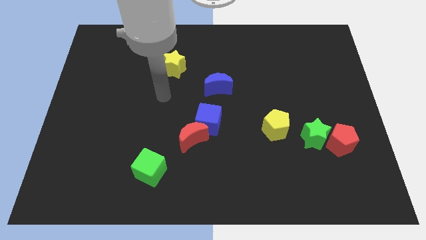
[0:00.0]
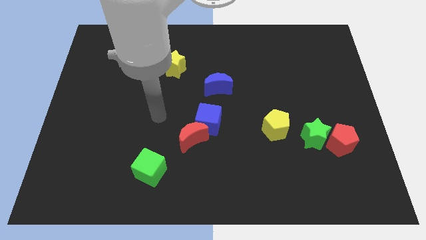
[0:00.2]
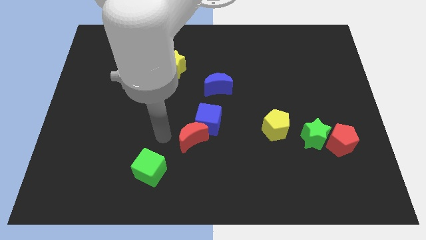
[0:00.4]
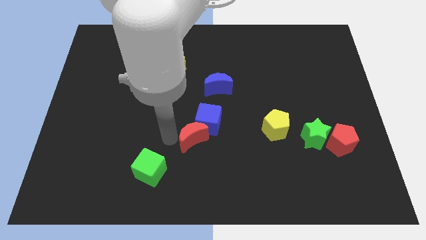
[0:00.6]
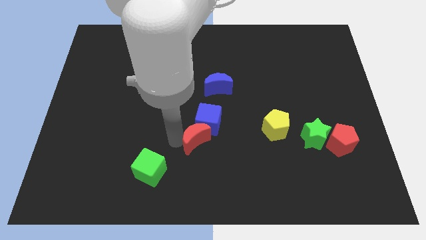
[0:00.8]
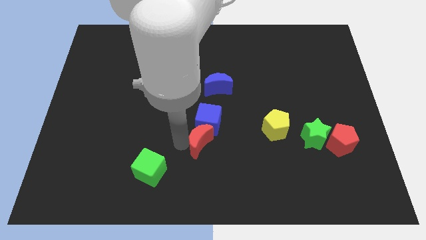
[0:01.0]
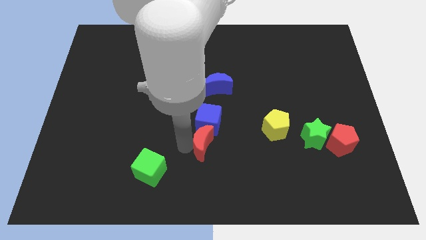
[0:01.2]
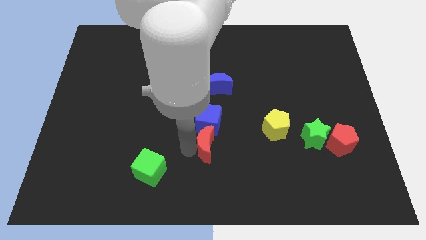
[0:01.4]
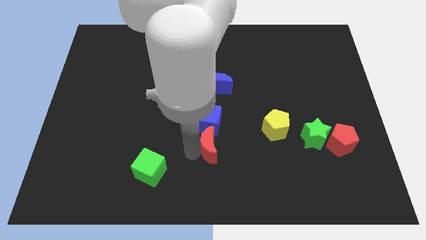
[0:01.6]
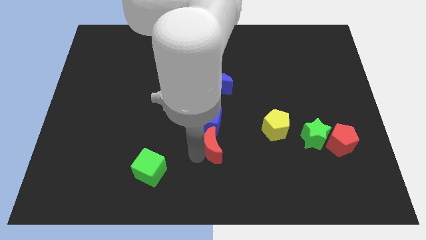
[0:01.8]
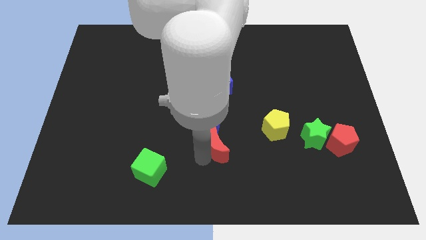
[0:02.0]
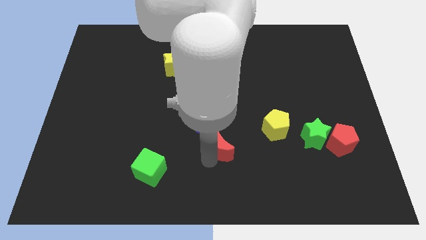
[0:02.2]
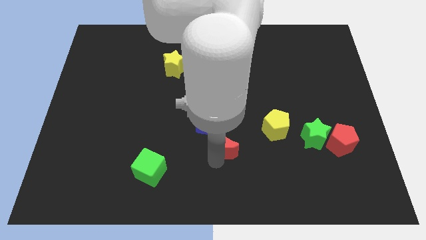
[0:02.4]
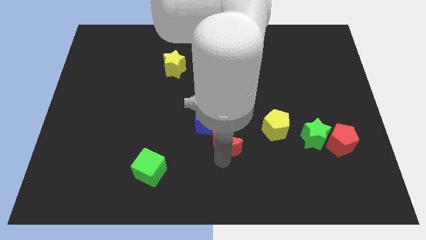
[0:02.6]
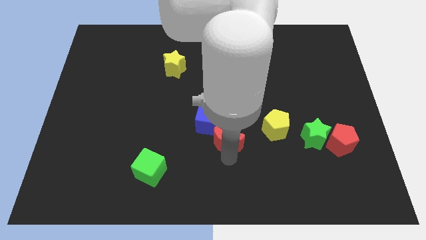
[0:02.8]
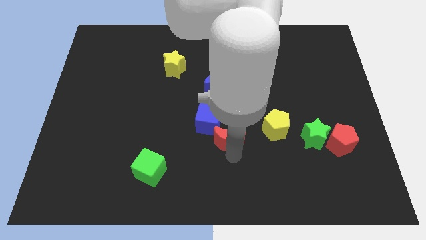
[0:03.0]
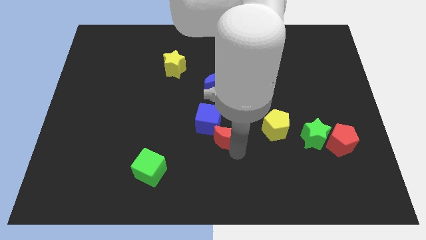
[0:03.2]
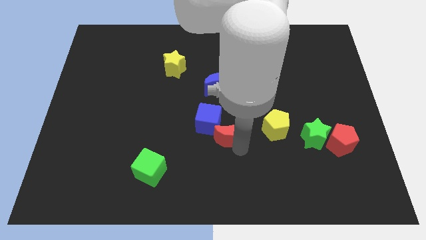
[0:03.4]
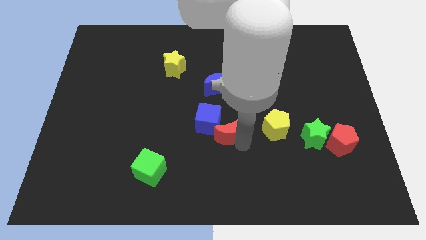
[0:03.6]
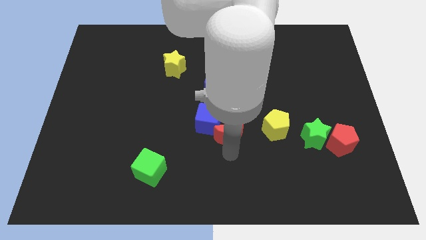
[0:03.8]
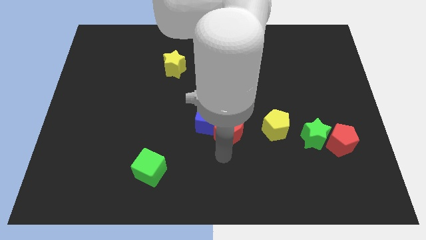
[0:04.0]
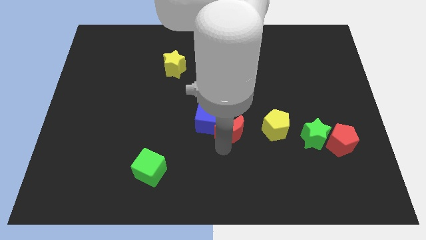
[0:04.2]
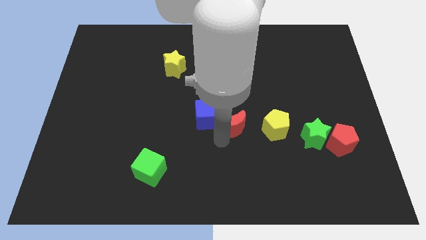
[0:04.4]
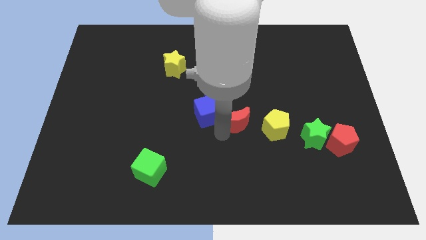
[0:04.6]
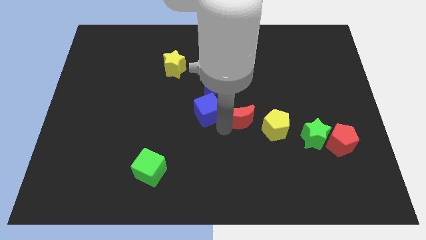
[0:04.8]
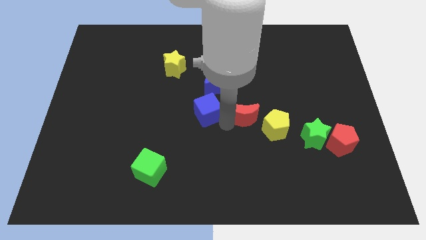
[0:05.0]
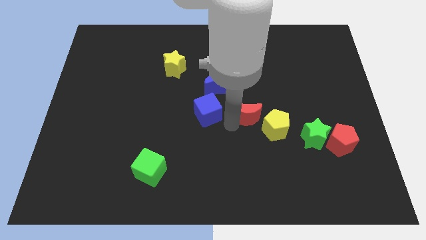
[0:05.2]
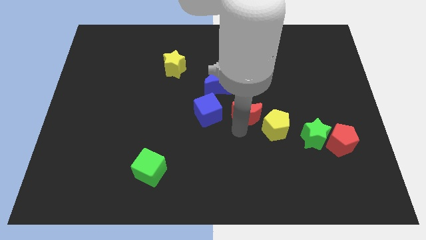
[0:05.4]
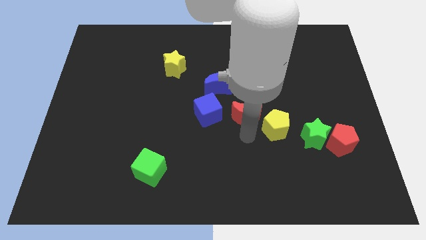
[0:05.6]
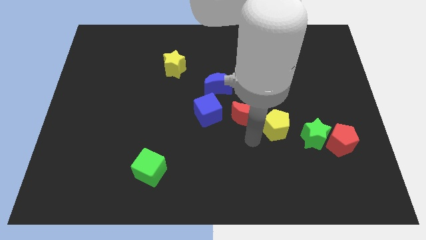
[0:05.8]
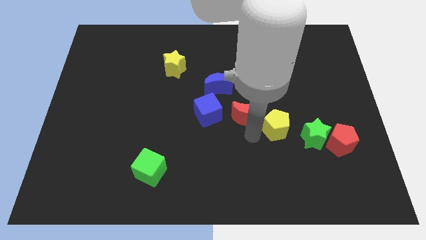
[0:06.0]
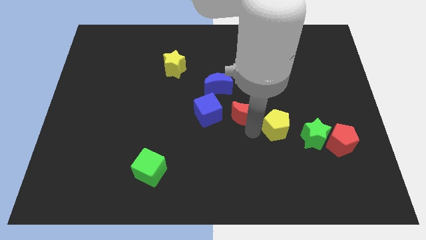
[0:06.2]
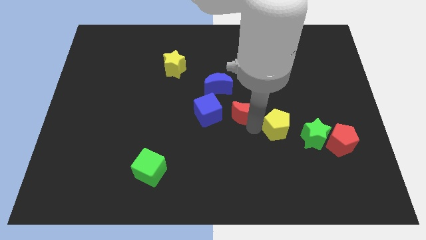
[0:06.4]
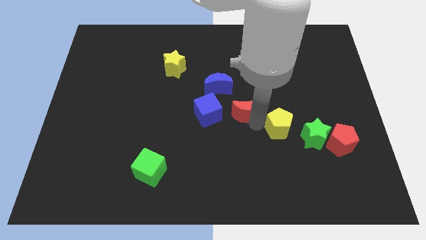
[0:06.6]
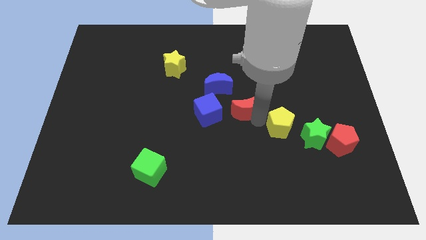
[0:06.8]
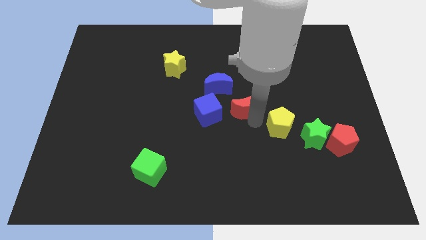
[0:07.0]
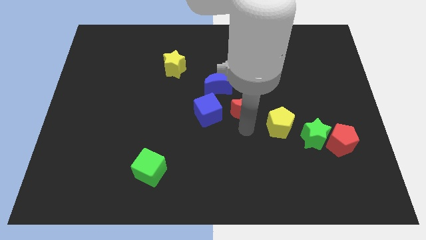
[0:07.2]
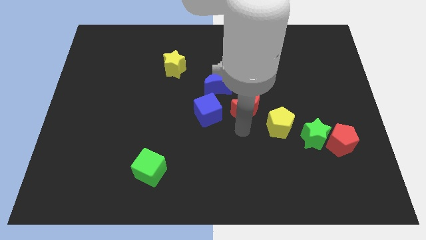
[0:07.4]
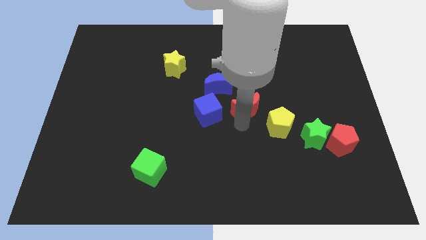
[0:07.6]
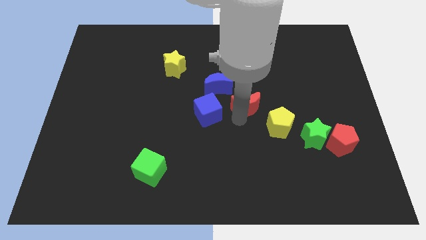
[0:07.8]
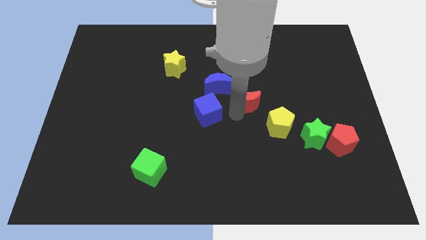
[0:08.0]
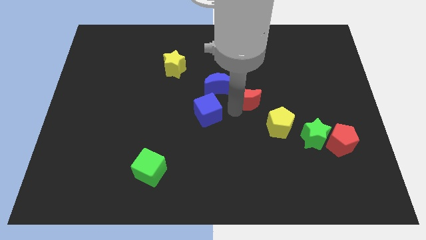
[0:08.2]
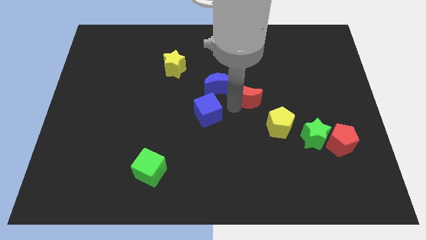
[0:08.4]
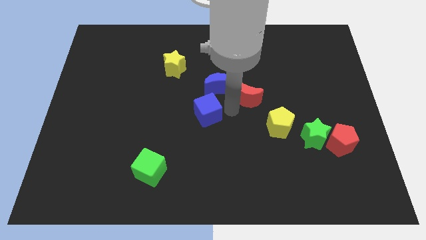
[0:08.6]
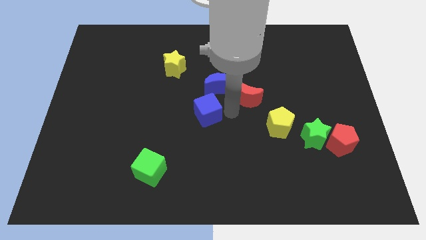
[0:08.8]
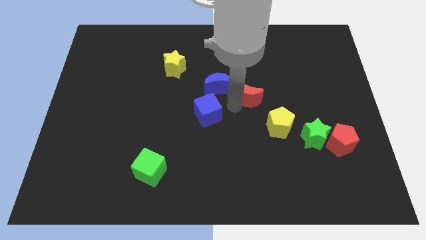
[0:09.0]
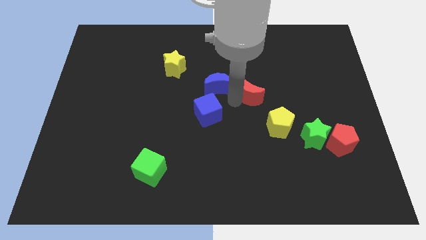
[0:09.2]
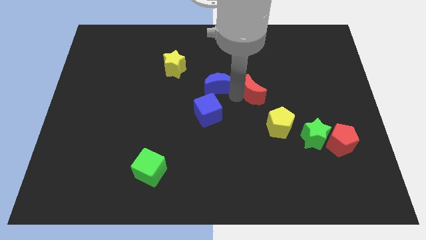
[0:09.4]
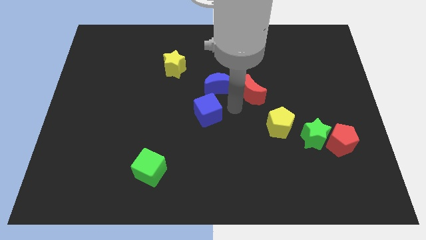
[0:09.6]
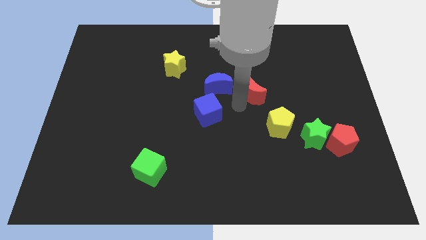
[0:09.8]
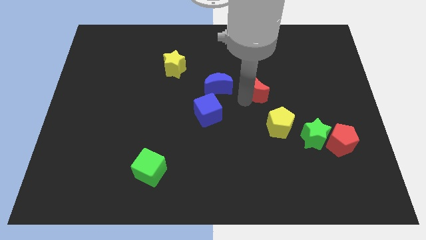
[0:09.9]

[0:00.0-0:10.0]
move the red moon up and right diagonally

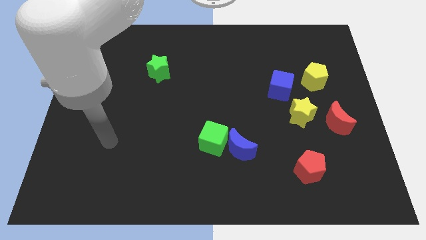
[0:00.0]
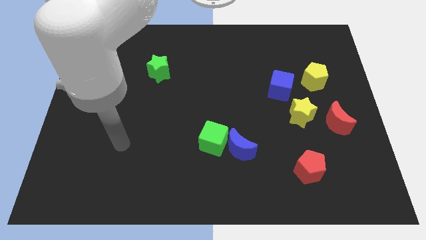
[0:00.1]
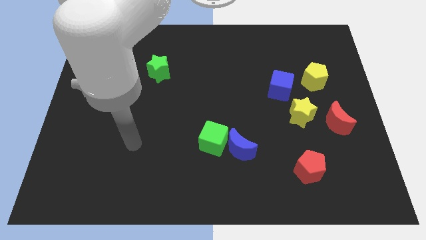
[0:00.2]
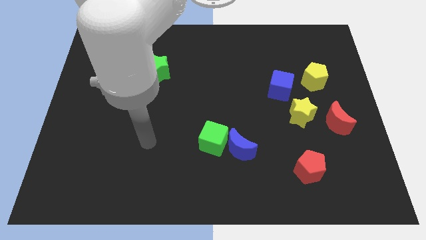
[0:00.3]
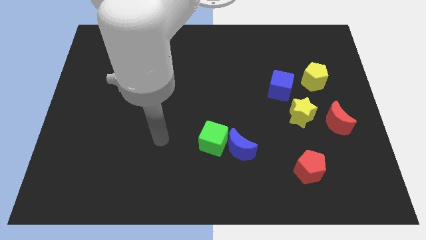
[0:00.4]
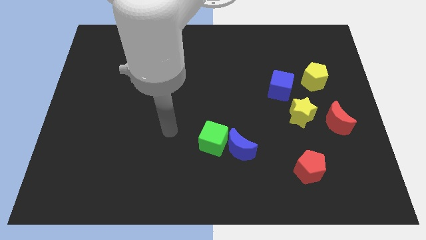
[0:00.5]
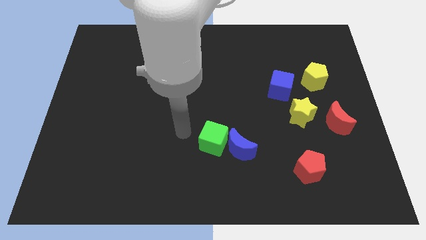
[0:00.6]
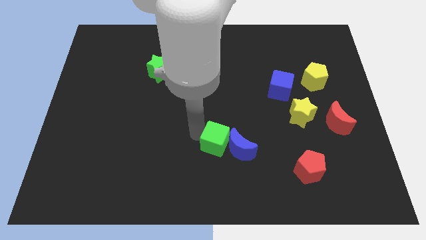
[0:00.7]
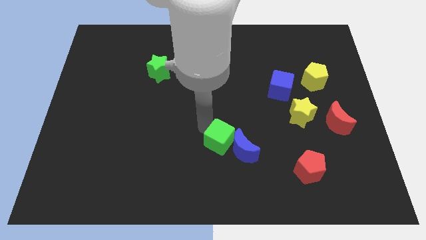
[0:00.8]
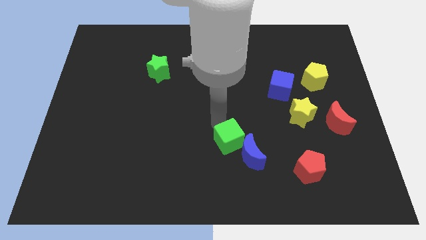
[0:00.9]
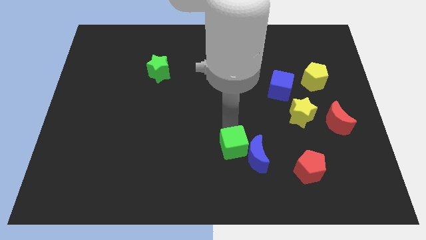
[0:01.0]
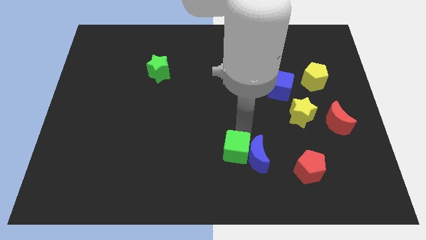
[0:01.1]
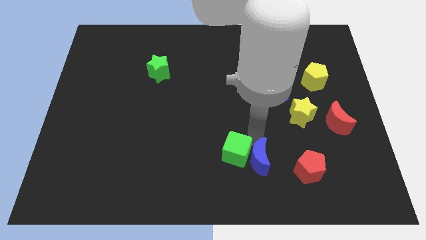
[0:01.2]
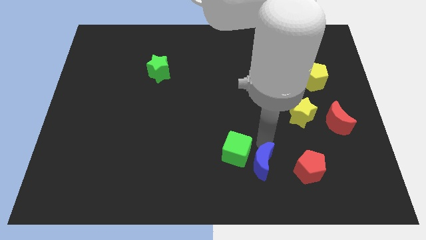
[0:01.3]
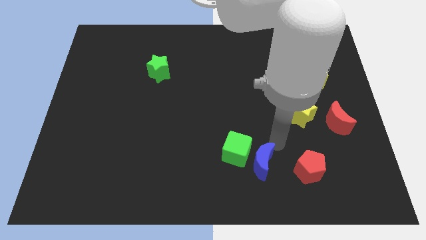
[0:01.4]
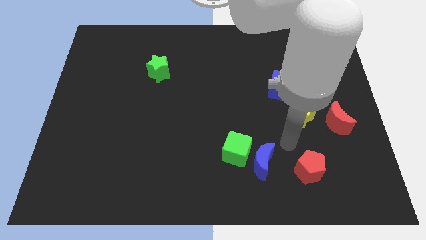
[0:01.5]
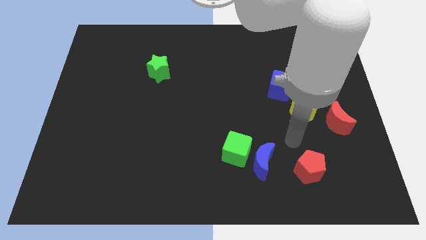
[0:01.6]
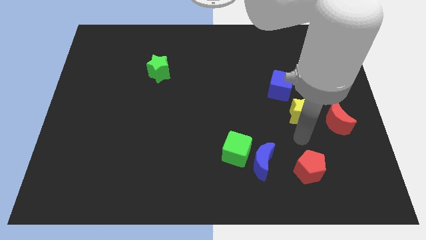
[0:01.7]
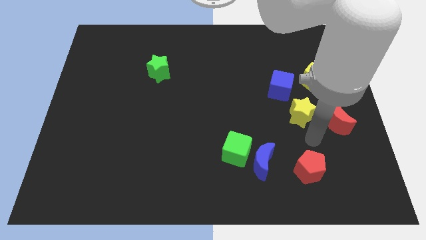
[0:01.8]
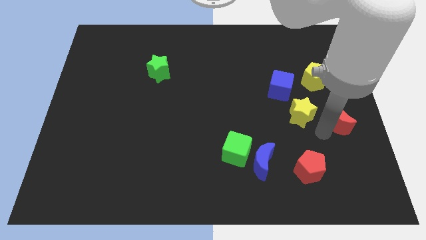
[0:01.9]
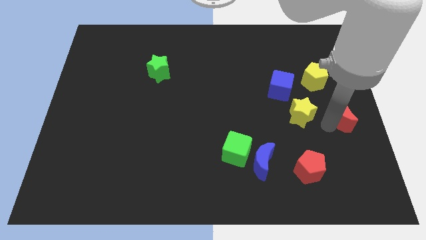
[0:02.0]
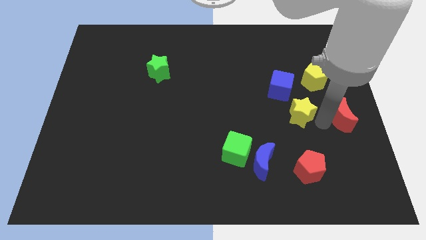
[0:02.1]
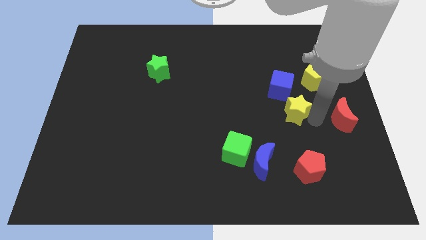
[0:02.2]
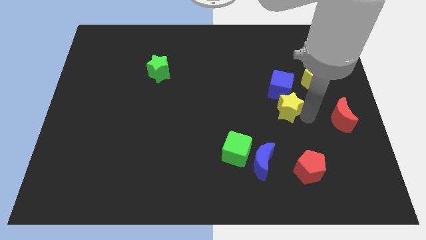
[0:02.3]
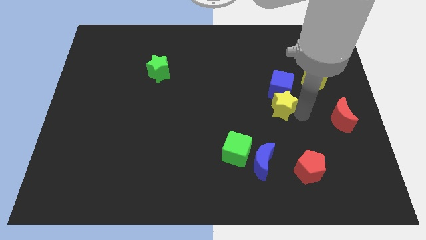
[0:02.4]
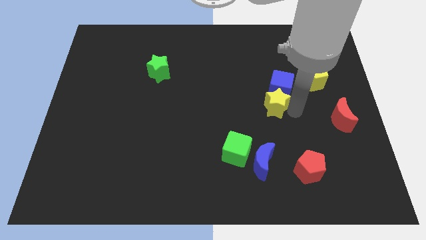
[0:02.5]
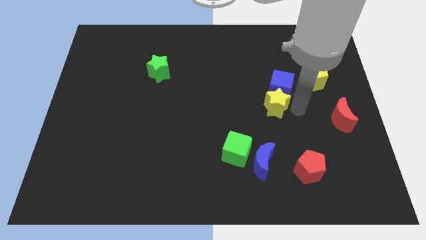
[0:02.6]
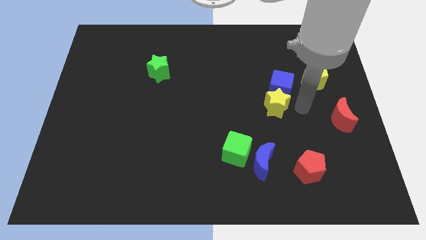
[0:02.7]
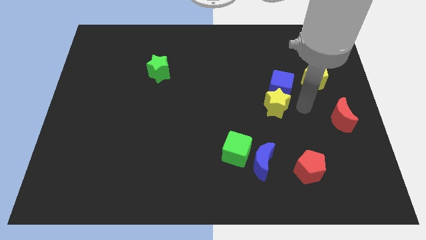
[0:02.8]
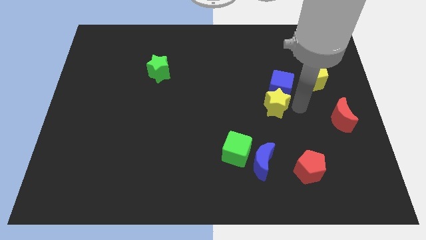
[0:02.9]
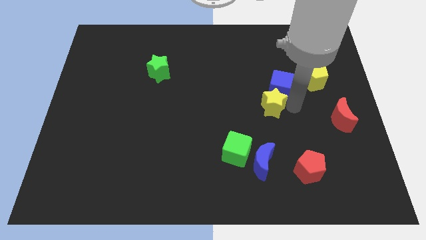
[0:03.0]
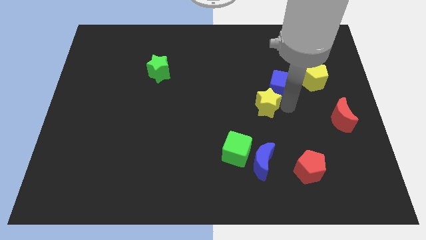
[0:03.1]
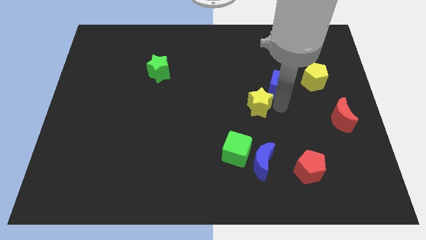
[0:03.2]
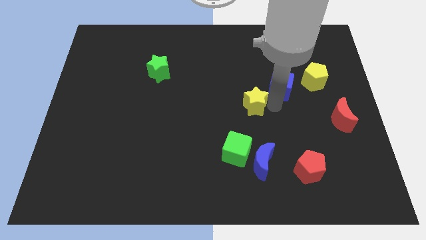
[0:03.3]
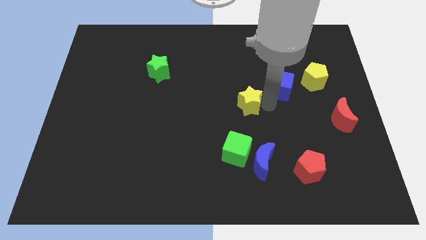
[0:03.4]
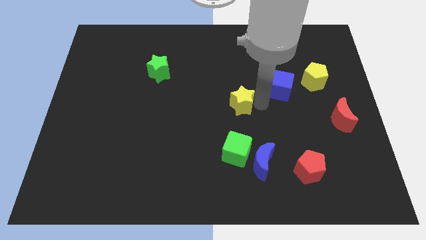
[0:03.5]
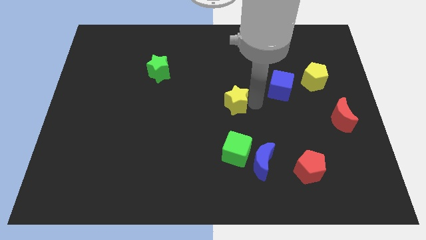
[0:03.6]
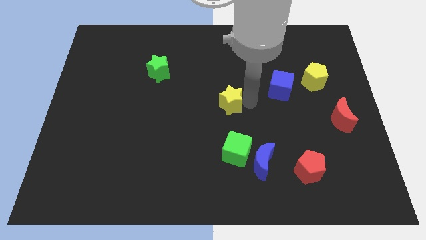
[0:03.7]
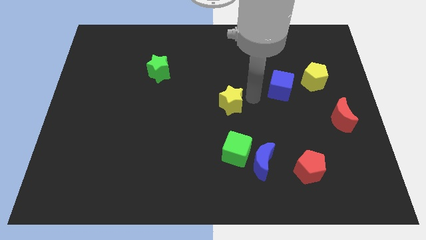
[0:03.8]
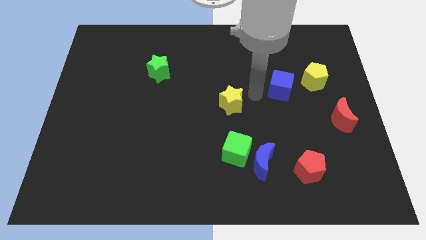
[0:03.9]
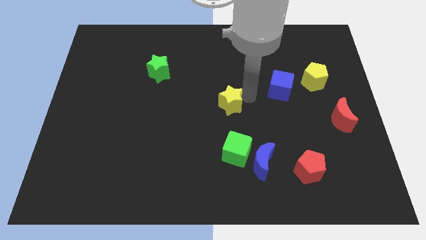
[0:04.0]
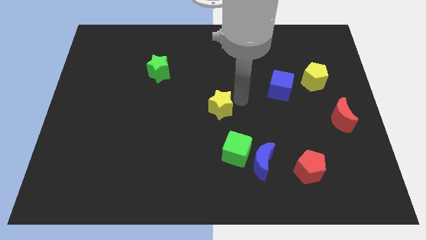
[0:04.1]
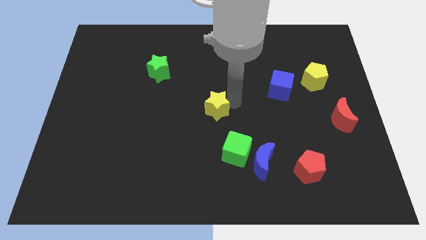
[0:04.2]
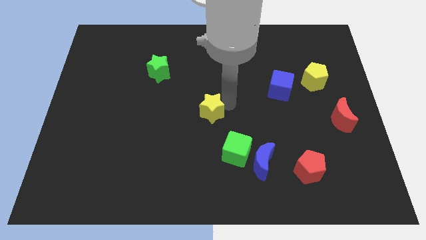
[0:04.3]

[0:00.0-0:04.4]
push the yellow star to the left
